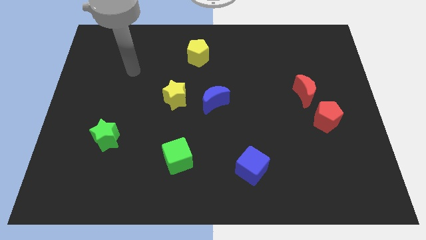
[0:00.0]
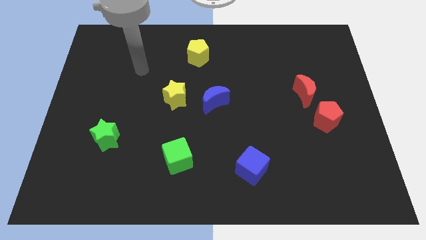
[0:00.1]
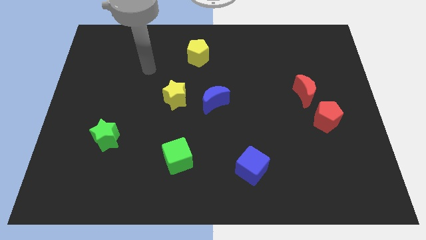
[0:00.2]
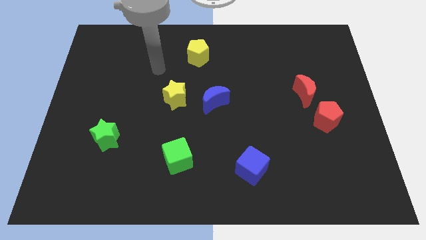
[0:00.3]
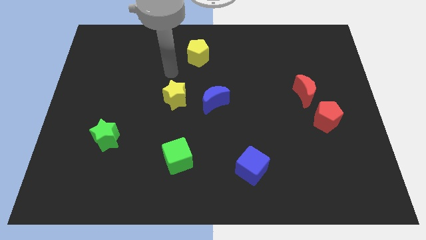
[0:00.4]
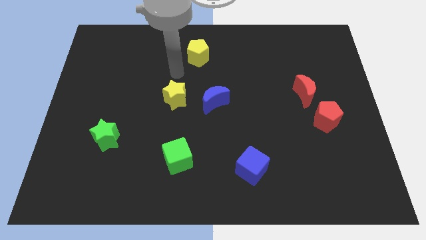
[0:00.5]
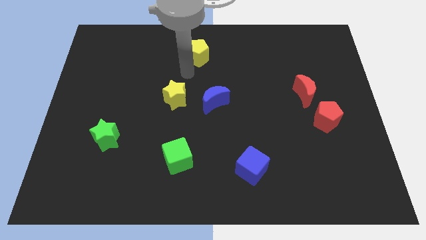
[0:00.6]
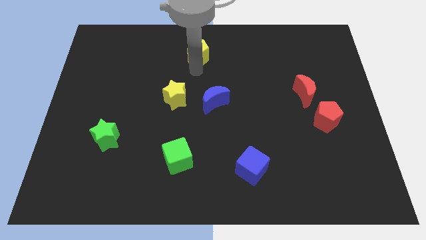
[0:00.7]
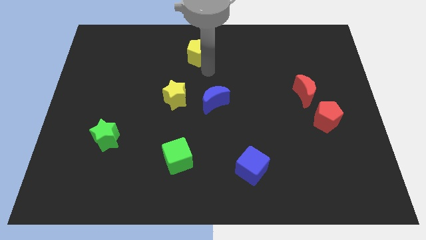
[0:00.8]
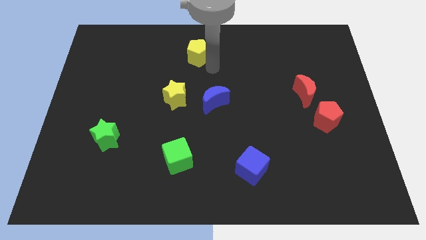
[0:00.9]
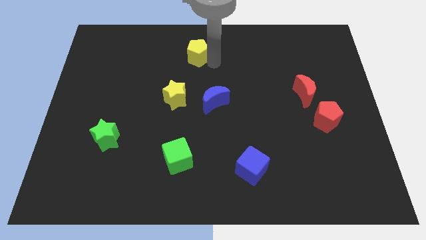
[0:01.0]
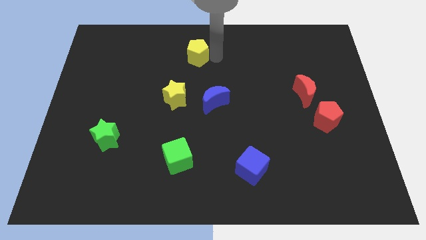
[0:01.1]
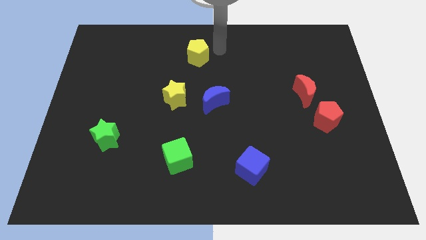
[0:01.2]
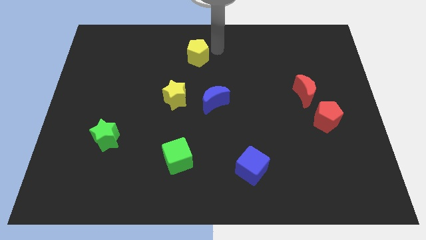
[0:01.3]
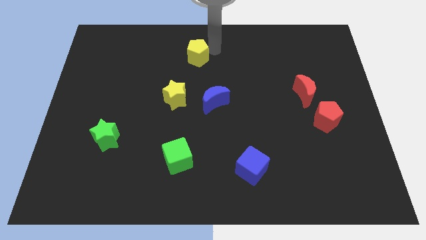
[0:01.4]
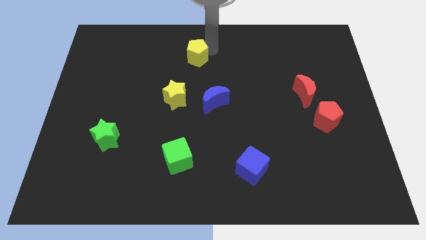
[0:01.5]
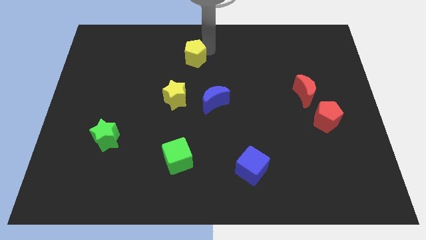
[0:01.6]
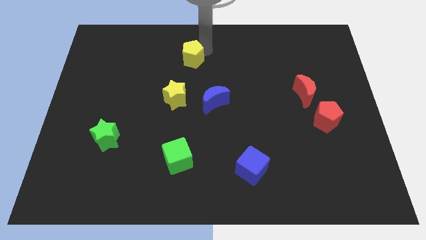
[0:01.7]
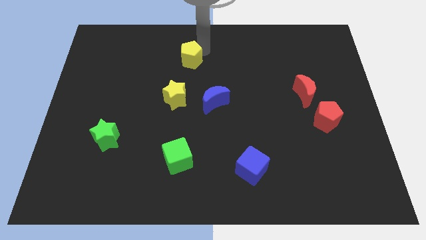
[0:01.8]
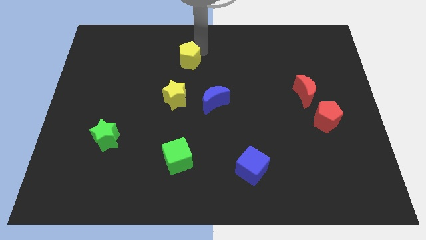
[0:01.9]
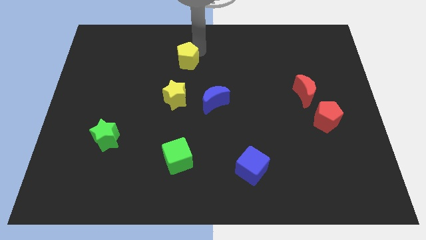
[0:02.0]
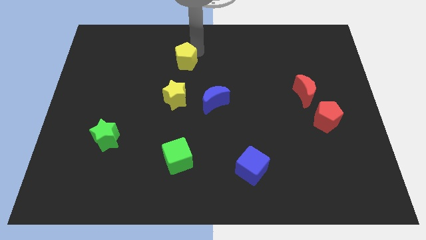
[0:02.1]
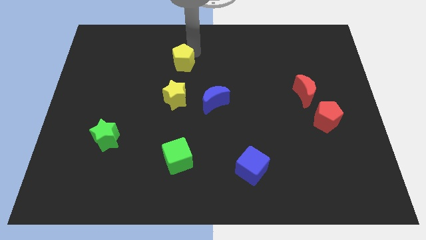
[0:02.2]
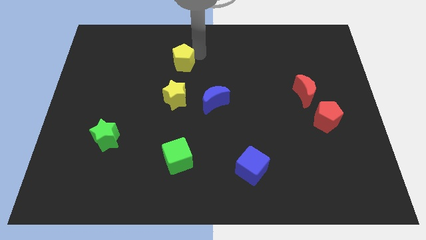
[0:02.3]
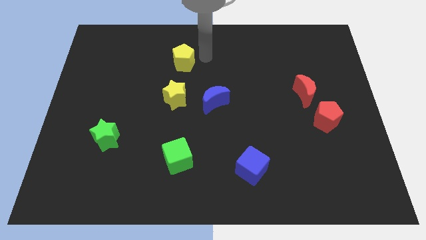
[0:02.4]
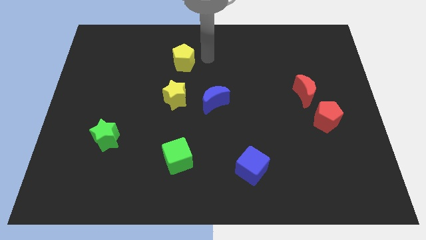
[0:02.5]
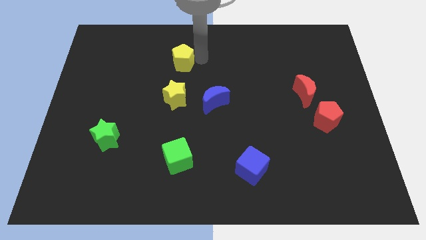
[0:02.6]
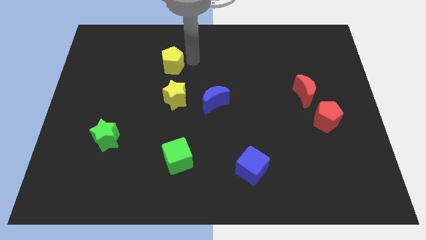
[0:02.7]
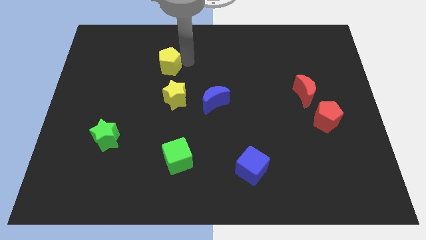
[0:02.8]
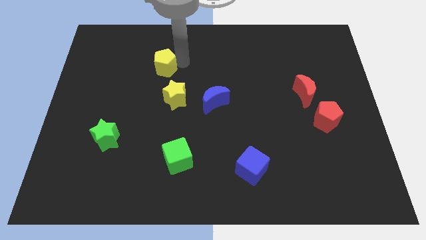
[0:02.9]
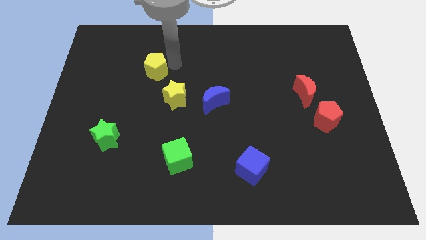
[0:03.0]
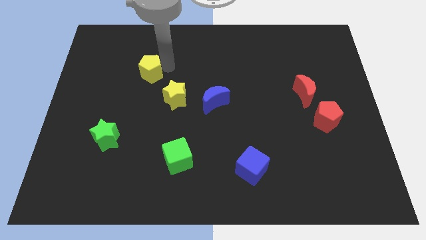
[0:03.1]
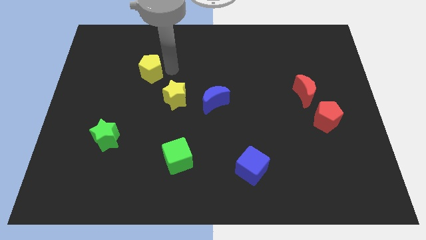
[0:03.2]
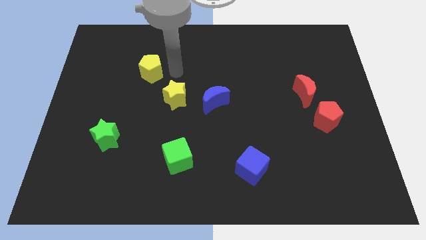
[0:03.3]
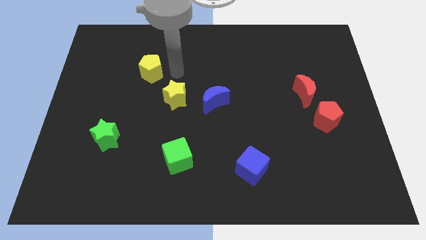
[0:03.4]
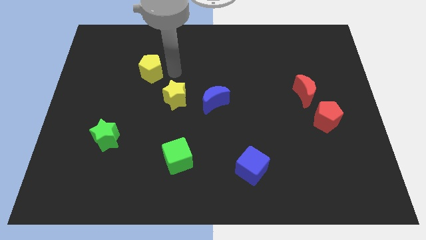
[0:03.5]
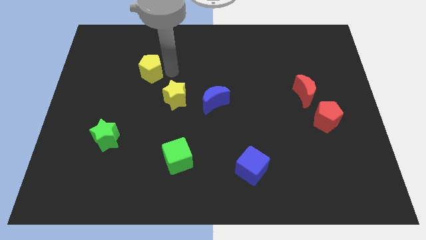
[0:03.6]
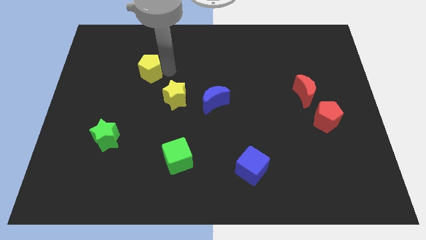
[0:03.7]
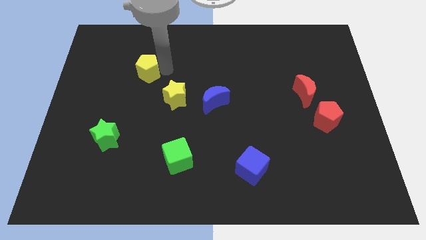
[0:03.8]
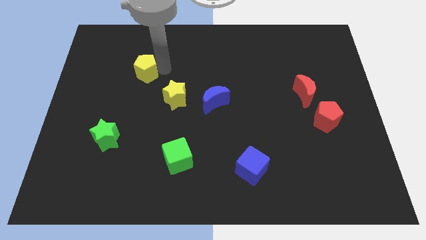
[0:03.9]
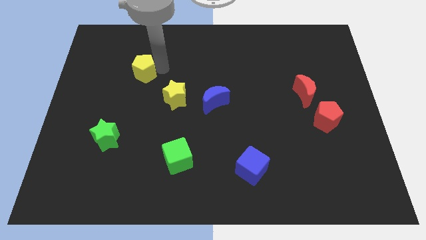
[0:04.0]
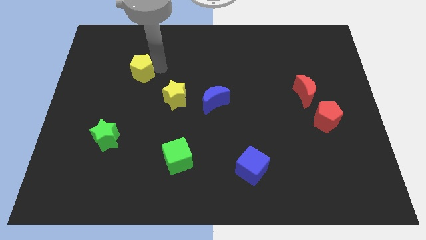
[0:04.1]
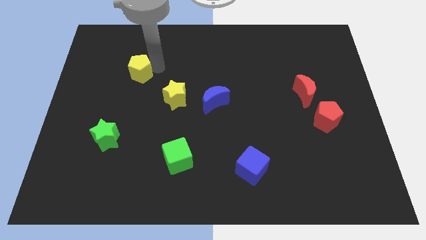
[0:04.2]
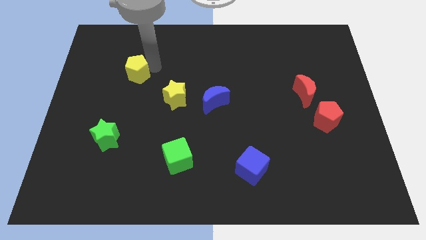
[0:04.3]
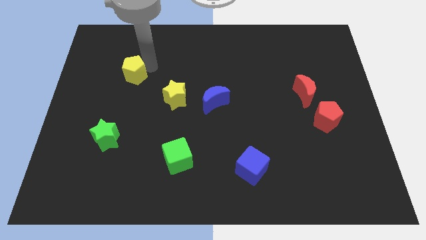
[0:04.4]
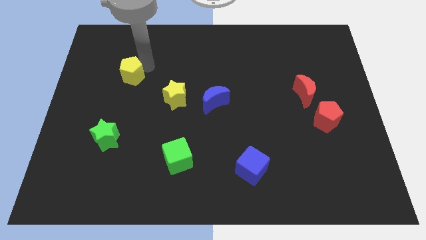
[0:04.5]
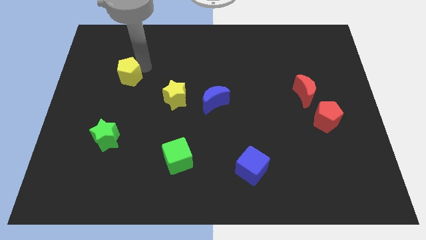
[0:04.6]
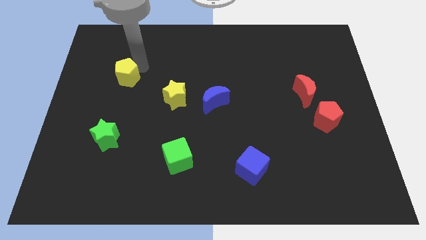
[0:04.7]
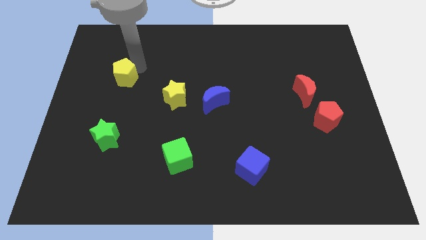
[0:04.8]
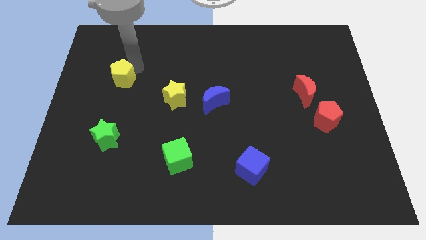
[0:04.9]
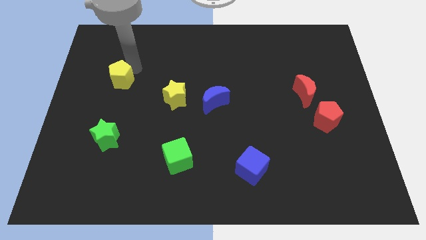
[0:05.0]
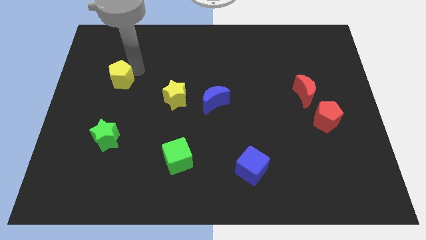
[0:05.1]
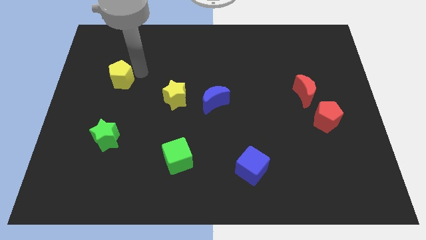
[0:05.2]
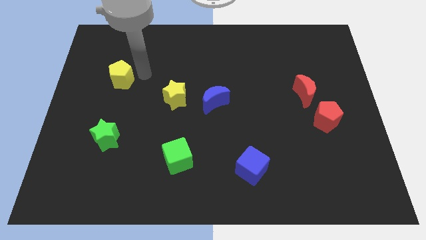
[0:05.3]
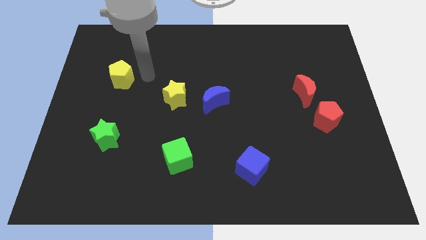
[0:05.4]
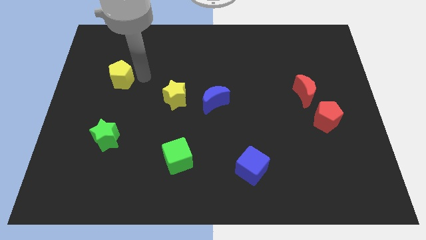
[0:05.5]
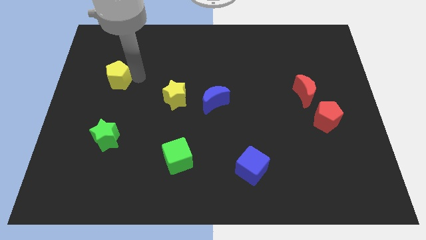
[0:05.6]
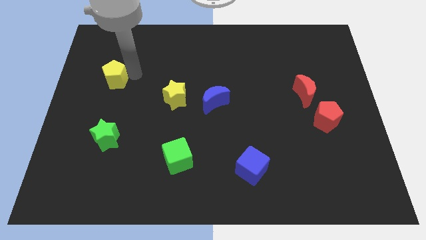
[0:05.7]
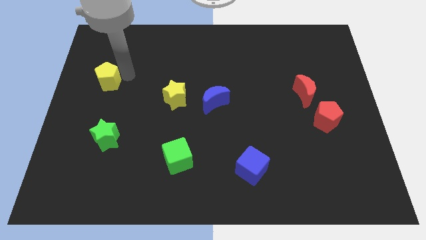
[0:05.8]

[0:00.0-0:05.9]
move the yellow pentagon to the left side

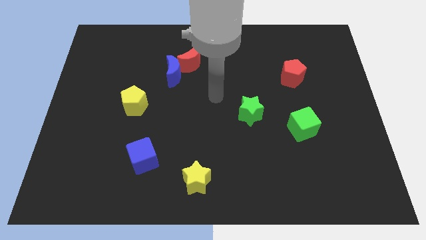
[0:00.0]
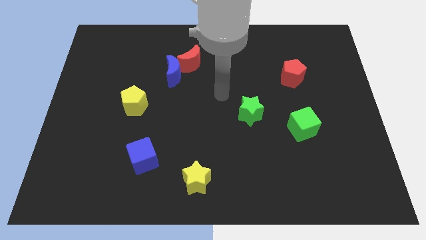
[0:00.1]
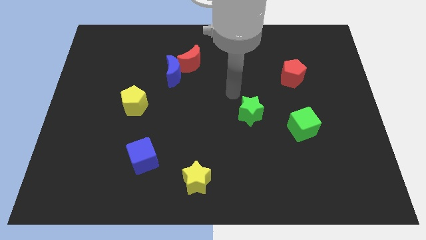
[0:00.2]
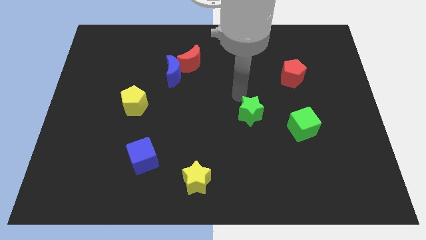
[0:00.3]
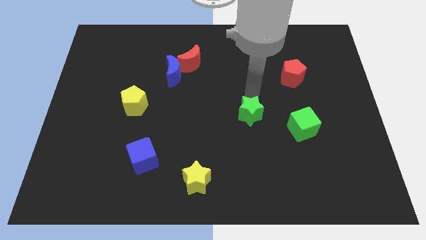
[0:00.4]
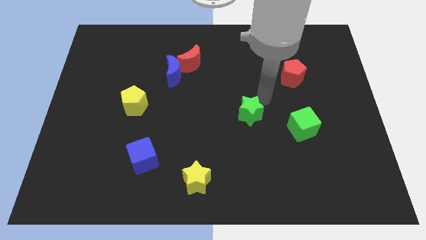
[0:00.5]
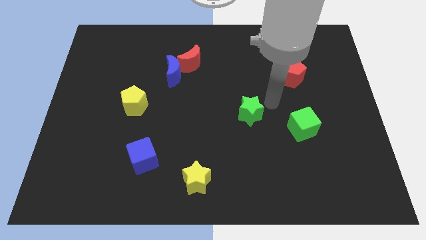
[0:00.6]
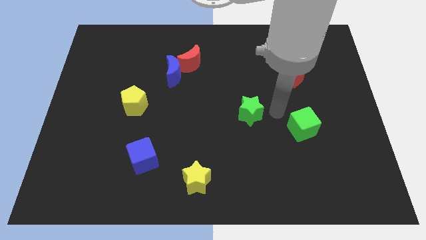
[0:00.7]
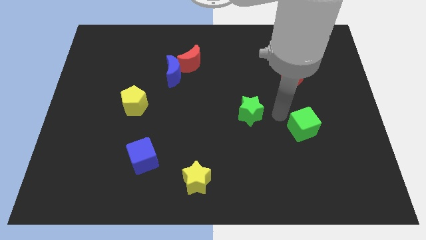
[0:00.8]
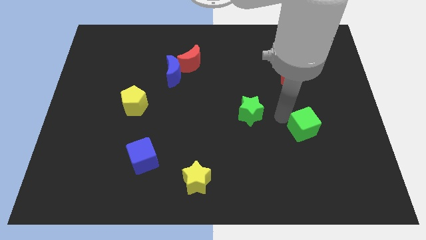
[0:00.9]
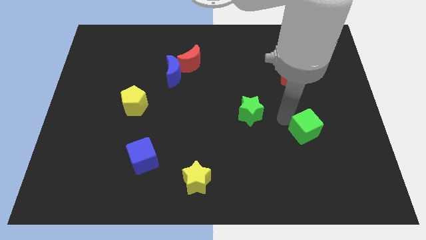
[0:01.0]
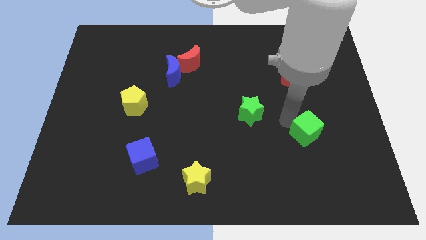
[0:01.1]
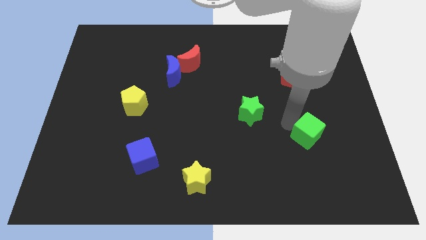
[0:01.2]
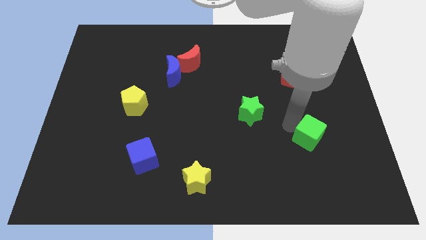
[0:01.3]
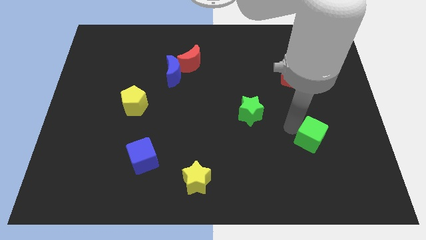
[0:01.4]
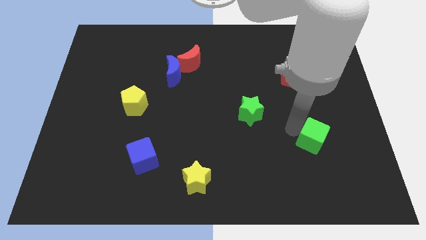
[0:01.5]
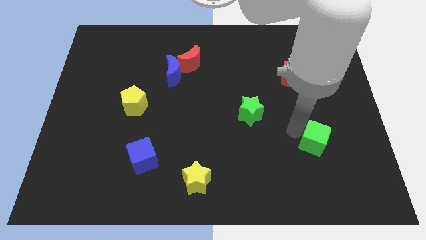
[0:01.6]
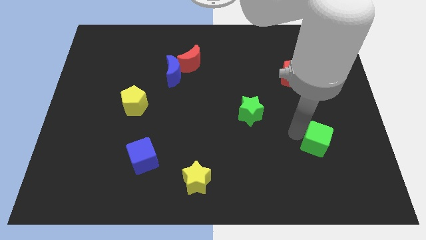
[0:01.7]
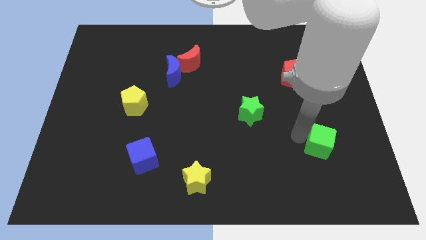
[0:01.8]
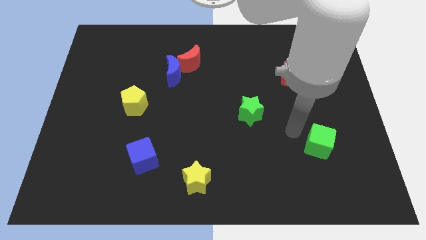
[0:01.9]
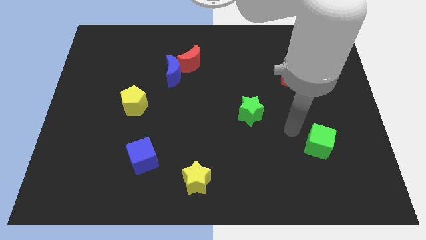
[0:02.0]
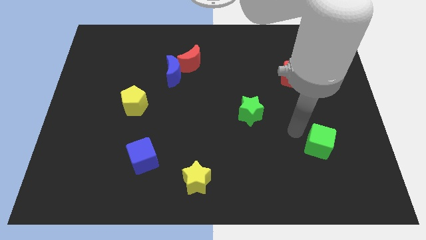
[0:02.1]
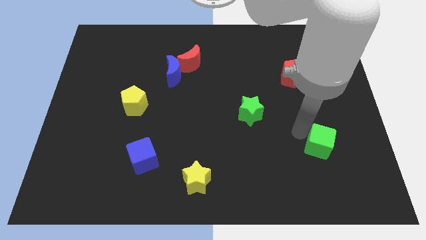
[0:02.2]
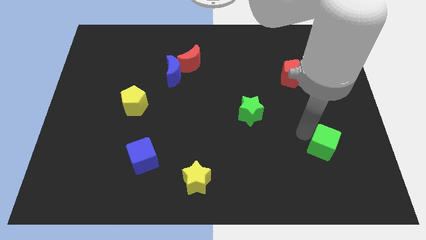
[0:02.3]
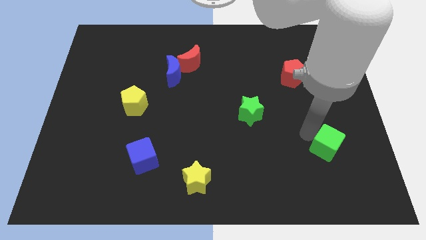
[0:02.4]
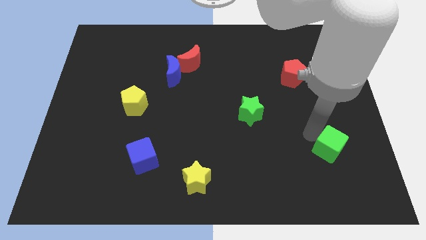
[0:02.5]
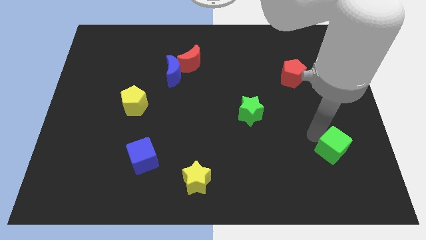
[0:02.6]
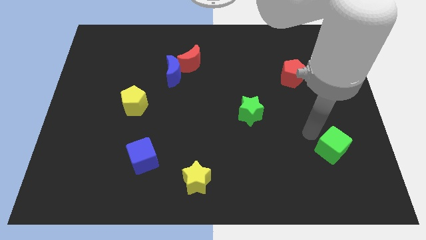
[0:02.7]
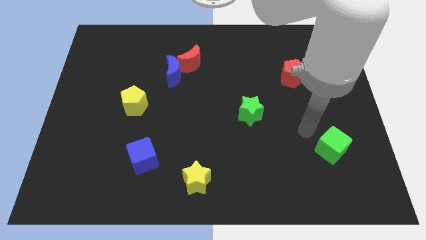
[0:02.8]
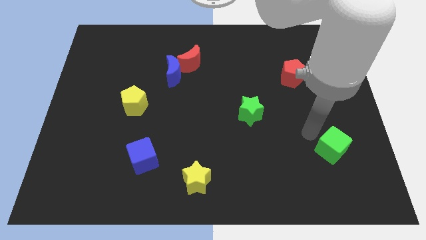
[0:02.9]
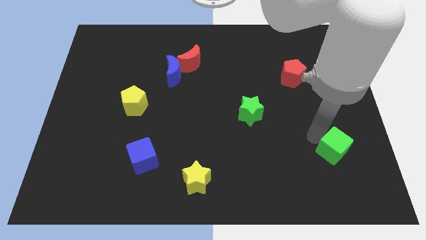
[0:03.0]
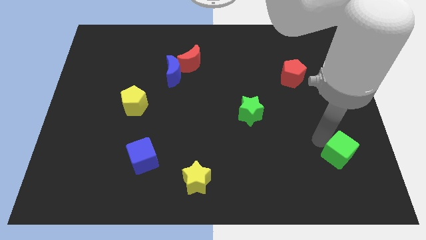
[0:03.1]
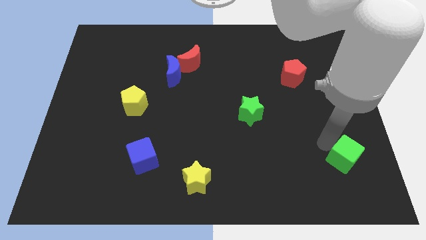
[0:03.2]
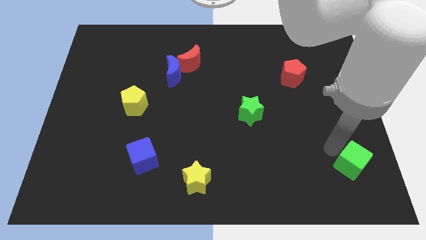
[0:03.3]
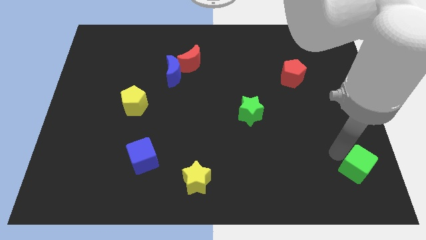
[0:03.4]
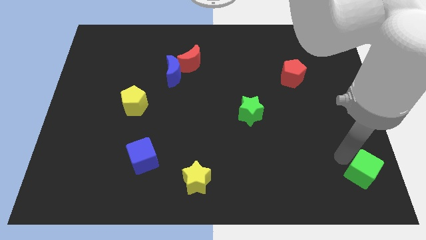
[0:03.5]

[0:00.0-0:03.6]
put the green cube to the bottom right of the board
